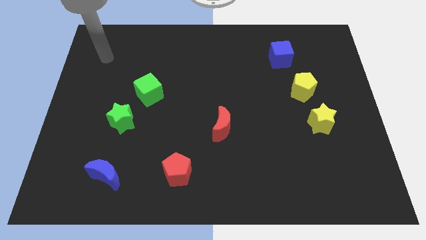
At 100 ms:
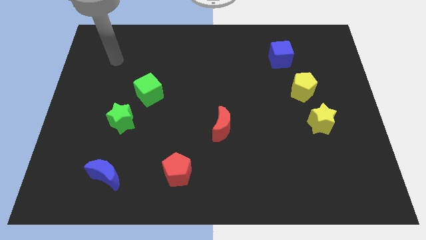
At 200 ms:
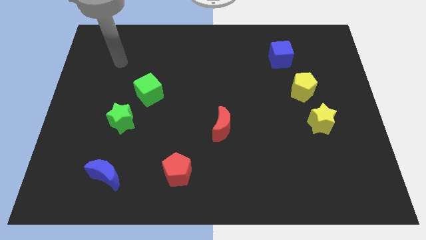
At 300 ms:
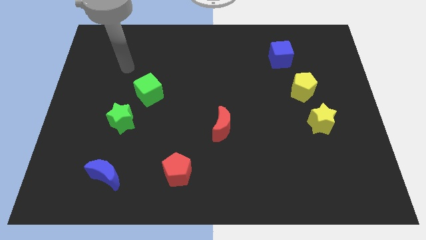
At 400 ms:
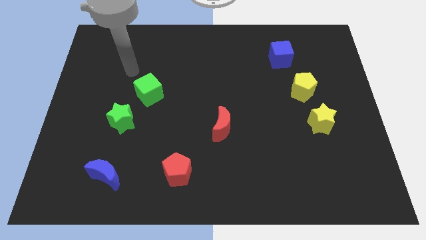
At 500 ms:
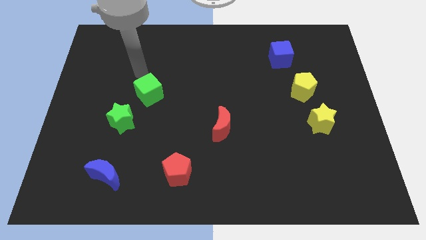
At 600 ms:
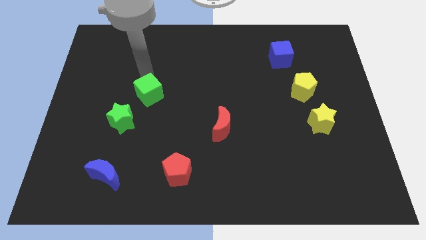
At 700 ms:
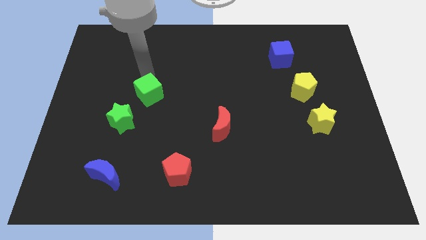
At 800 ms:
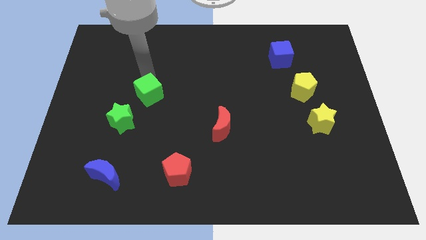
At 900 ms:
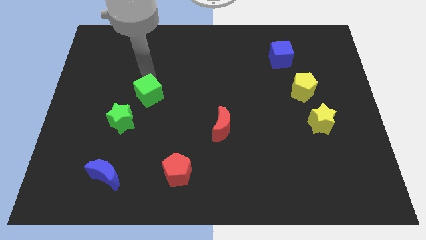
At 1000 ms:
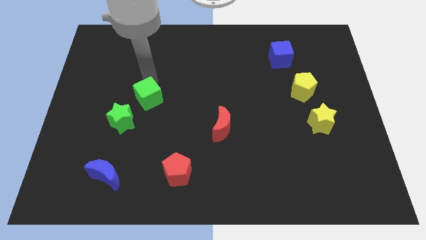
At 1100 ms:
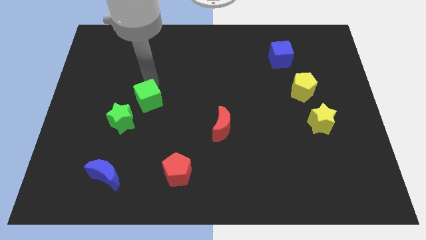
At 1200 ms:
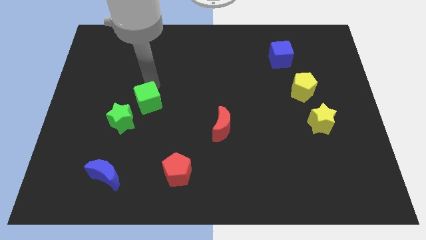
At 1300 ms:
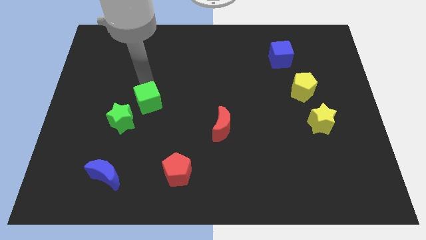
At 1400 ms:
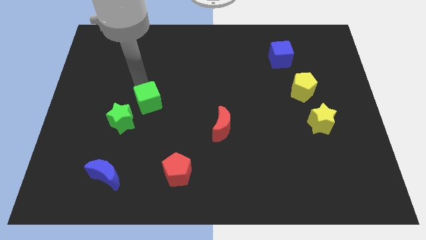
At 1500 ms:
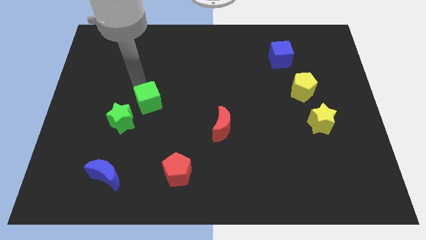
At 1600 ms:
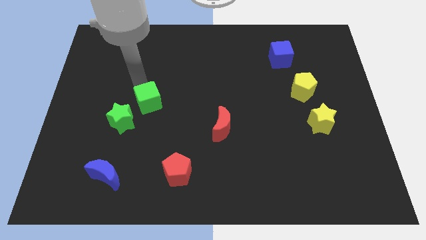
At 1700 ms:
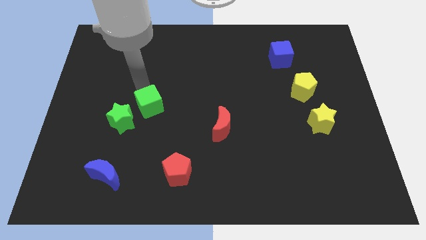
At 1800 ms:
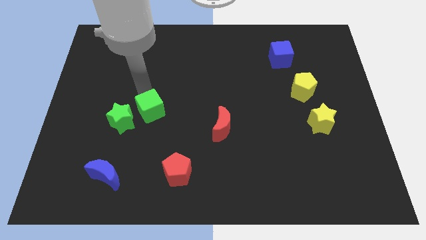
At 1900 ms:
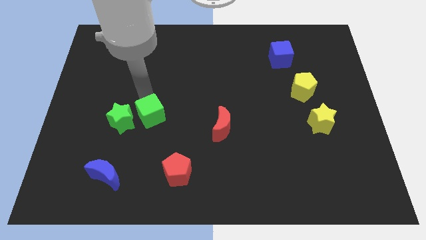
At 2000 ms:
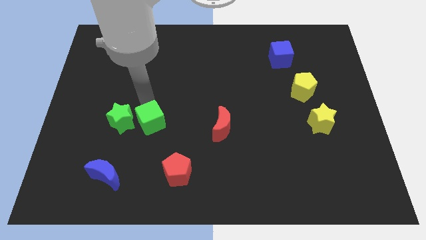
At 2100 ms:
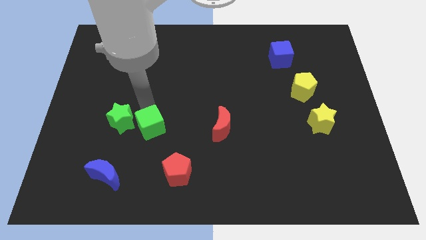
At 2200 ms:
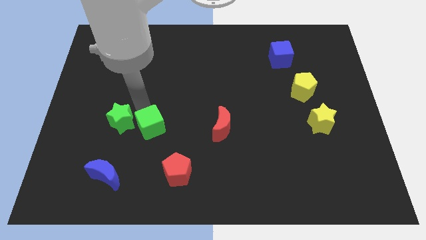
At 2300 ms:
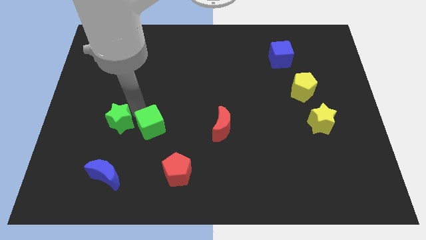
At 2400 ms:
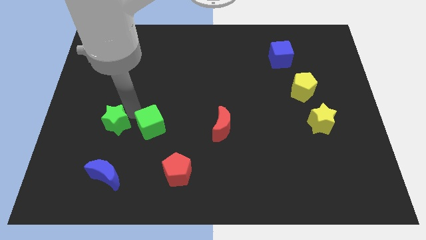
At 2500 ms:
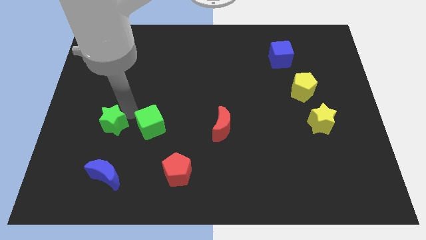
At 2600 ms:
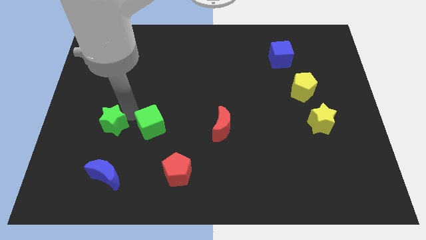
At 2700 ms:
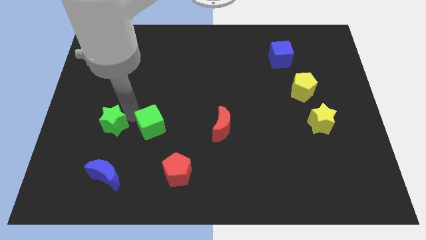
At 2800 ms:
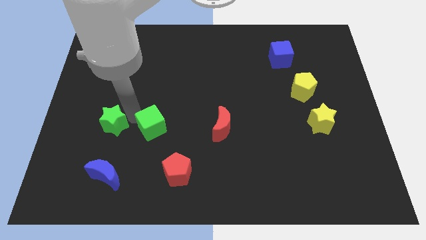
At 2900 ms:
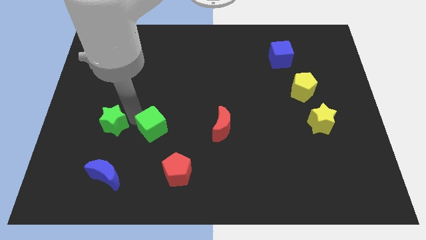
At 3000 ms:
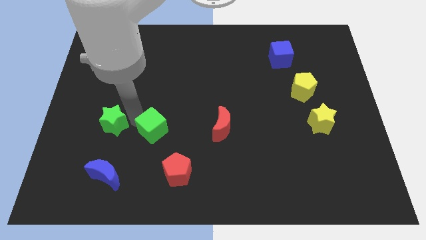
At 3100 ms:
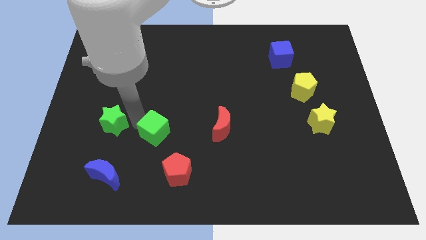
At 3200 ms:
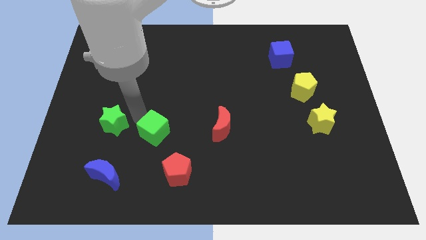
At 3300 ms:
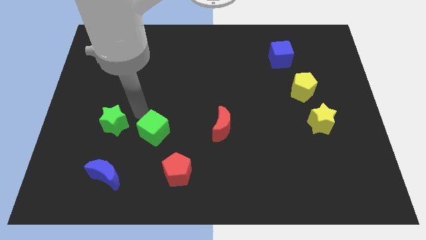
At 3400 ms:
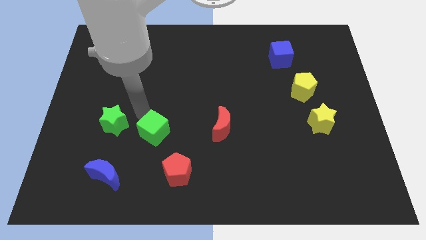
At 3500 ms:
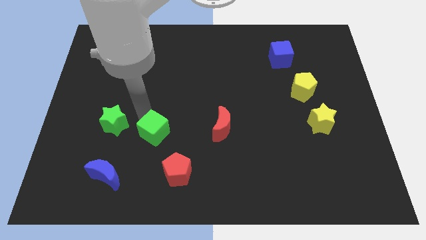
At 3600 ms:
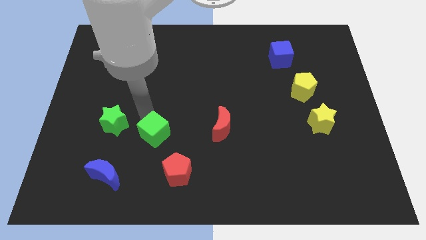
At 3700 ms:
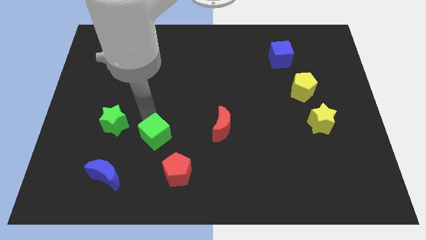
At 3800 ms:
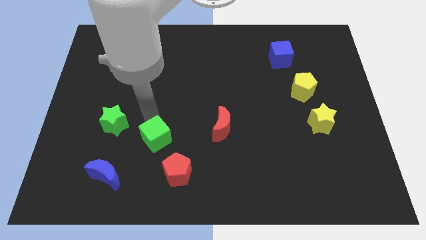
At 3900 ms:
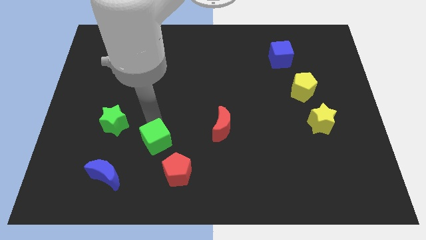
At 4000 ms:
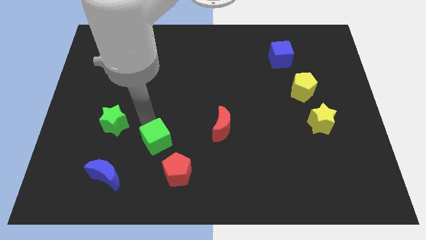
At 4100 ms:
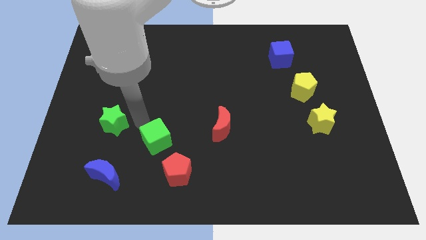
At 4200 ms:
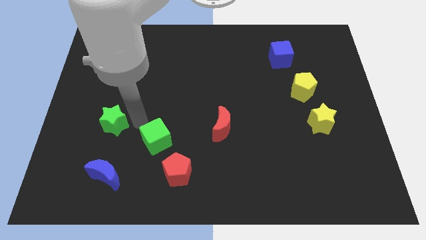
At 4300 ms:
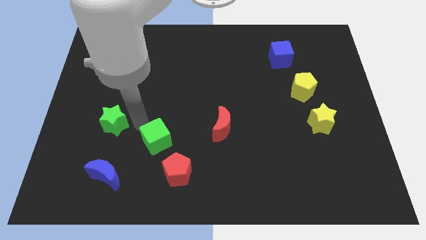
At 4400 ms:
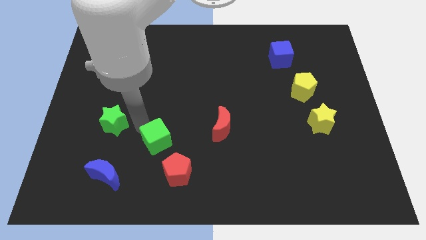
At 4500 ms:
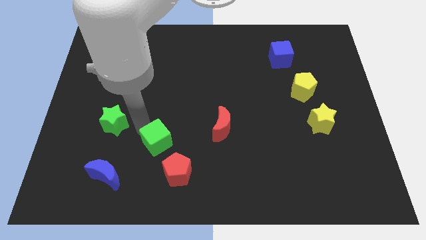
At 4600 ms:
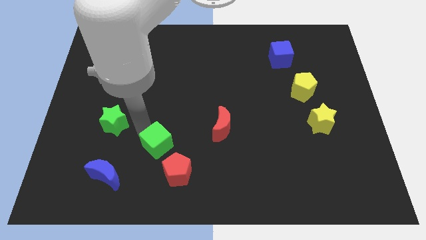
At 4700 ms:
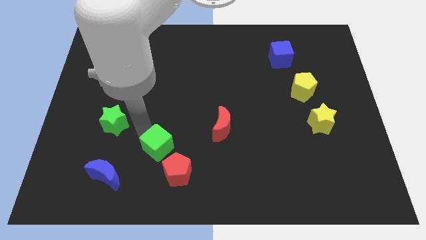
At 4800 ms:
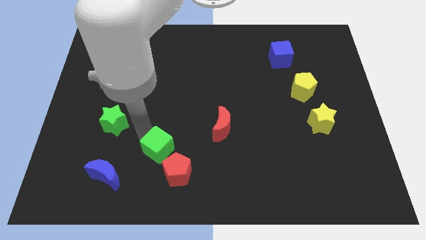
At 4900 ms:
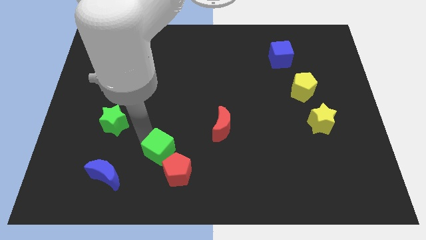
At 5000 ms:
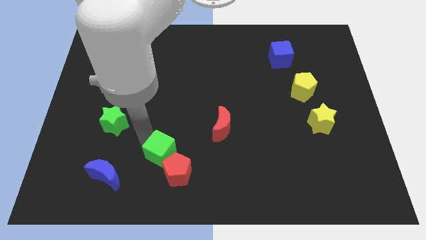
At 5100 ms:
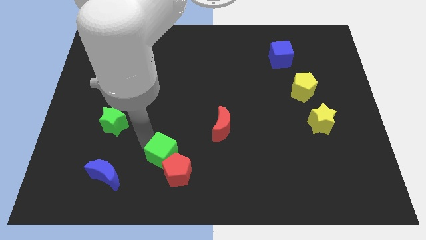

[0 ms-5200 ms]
slide the green cube next to the red pentagon

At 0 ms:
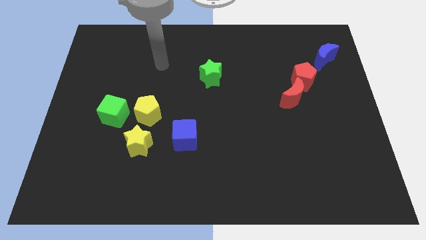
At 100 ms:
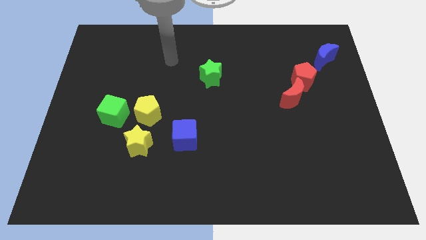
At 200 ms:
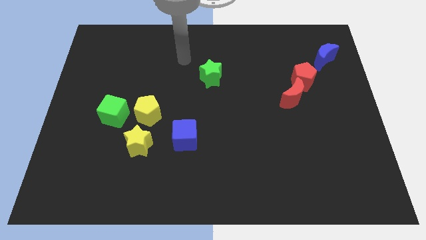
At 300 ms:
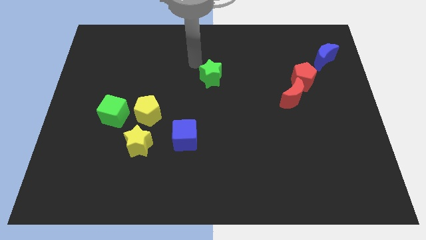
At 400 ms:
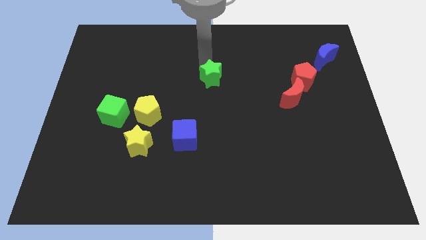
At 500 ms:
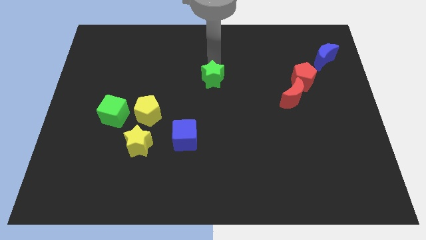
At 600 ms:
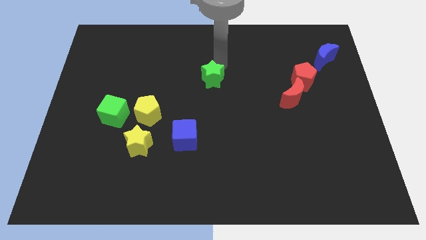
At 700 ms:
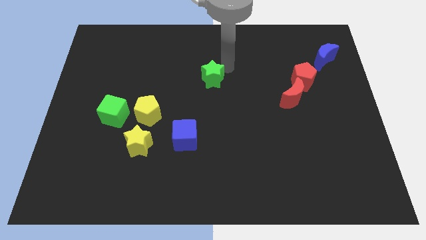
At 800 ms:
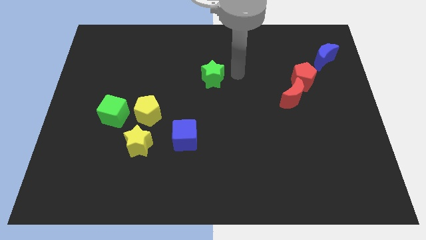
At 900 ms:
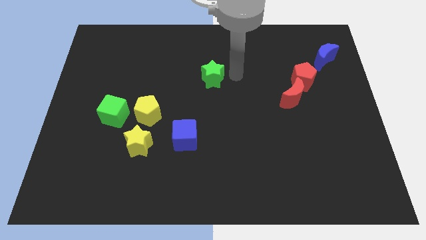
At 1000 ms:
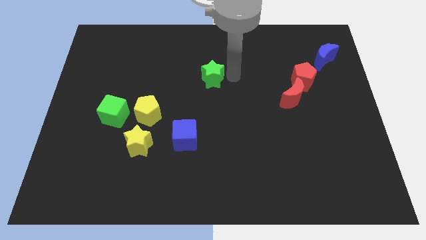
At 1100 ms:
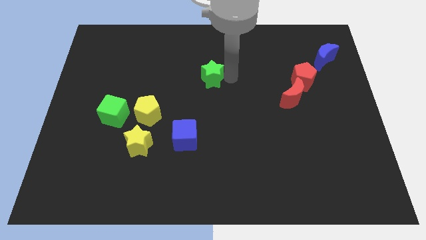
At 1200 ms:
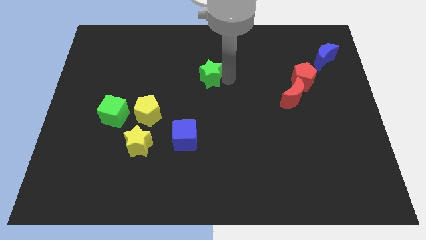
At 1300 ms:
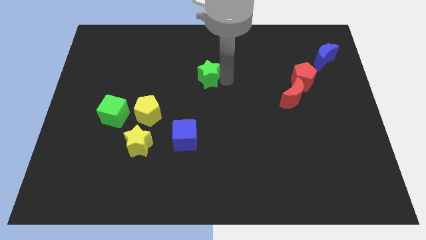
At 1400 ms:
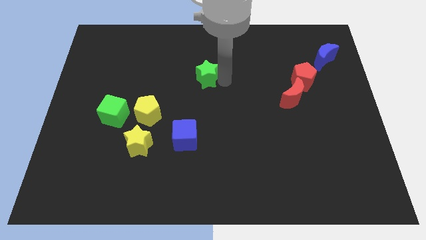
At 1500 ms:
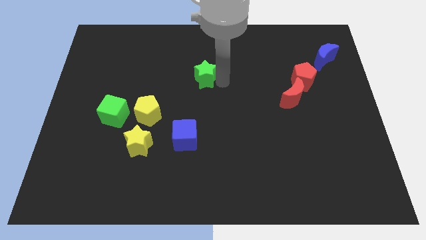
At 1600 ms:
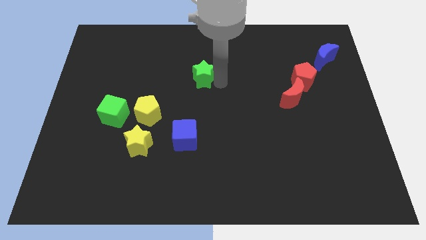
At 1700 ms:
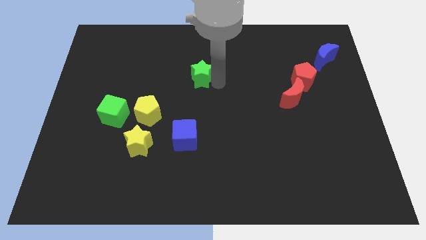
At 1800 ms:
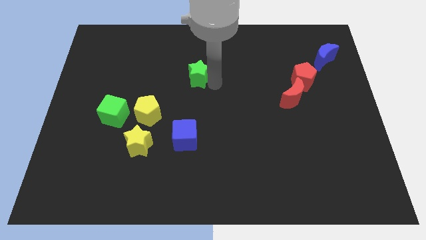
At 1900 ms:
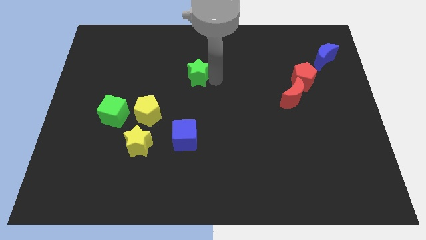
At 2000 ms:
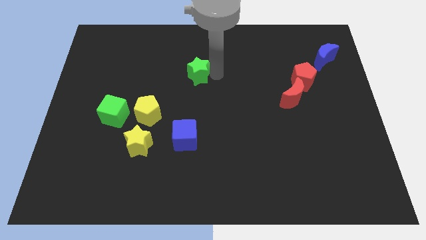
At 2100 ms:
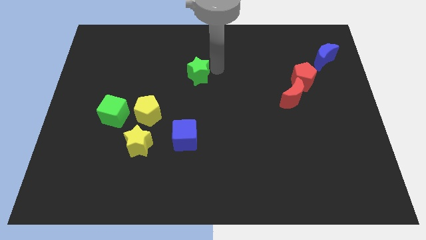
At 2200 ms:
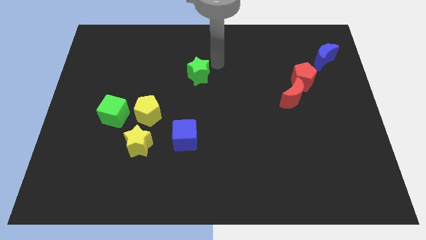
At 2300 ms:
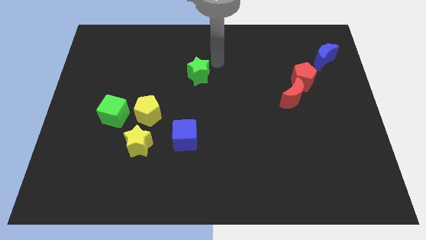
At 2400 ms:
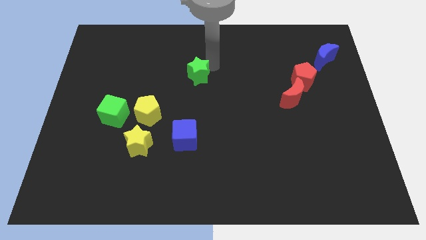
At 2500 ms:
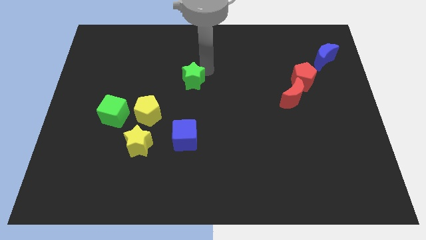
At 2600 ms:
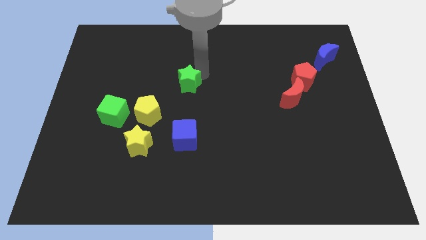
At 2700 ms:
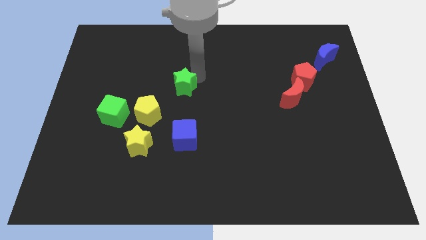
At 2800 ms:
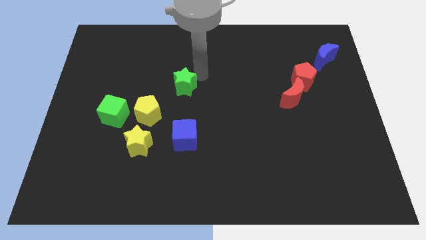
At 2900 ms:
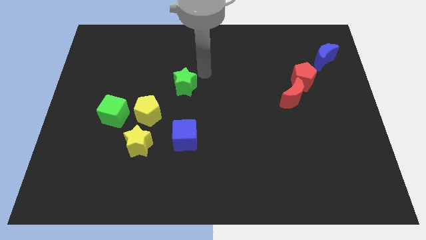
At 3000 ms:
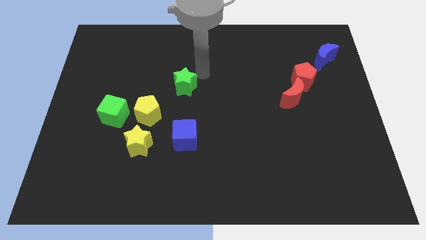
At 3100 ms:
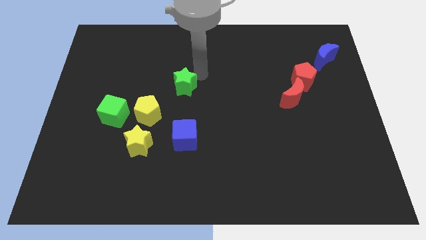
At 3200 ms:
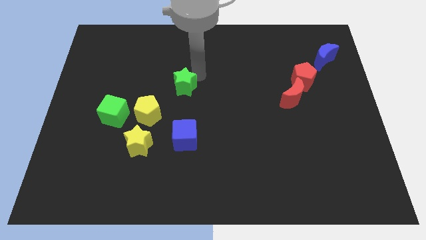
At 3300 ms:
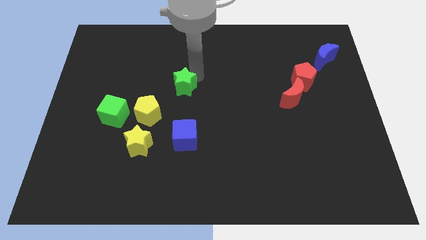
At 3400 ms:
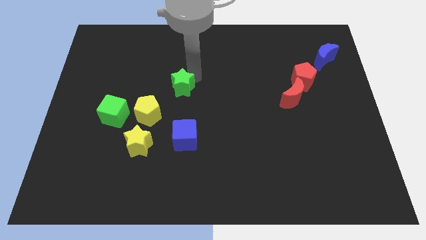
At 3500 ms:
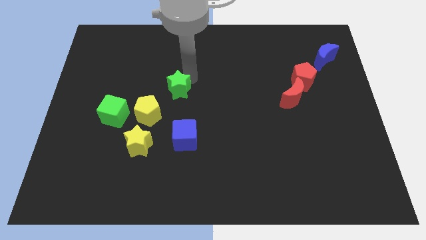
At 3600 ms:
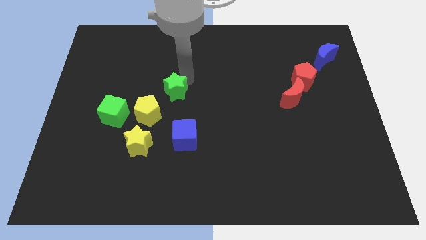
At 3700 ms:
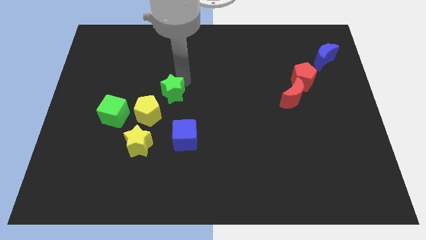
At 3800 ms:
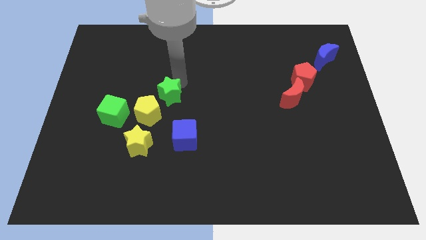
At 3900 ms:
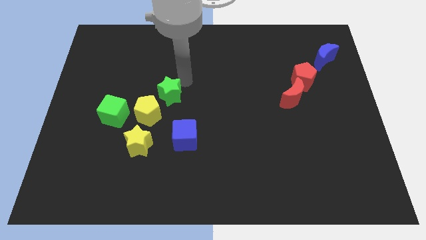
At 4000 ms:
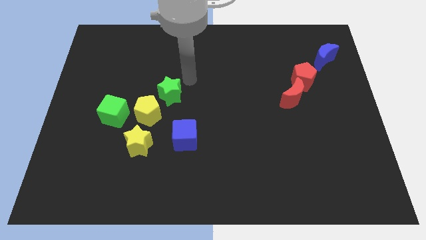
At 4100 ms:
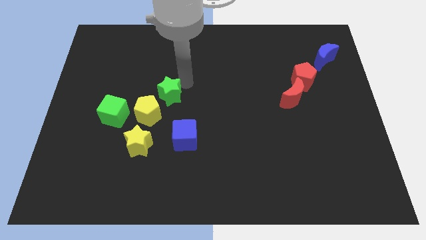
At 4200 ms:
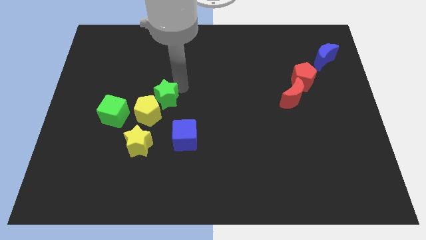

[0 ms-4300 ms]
push the green star close to the yellow pentagon
